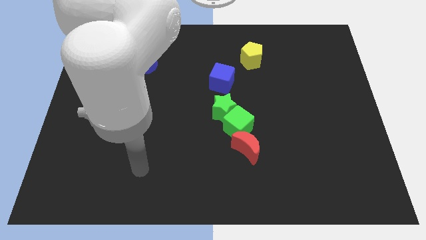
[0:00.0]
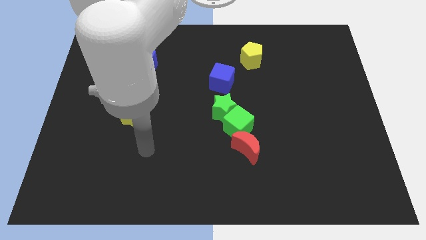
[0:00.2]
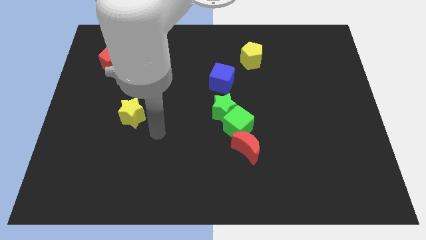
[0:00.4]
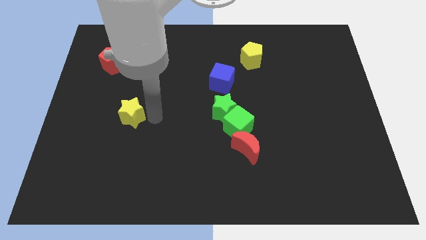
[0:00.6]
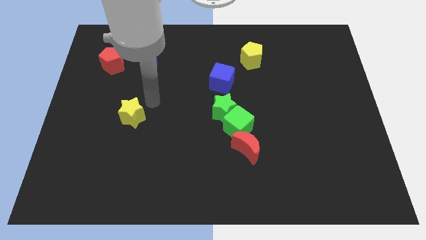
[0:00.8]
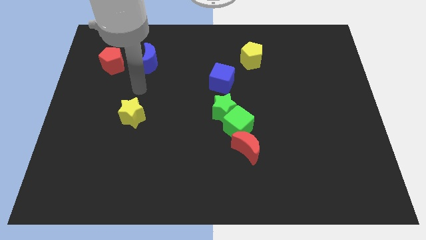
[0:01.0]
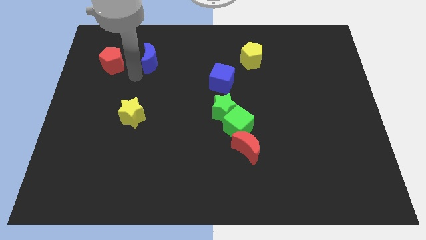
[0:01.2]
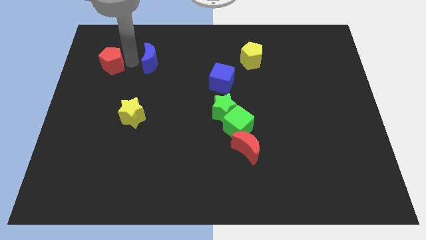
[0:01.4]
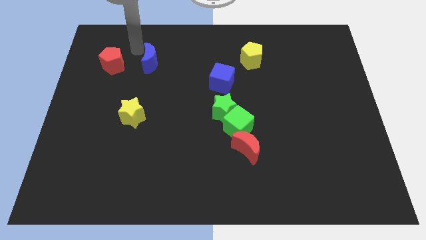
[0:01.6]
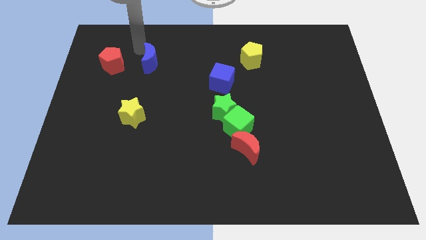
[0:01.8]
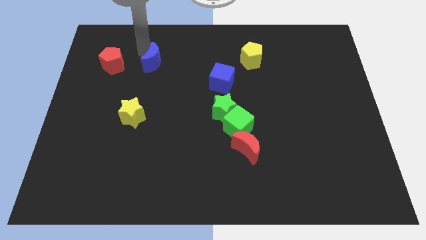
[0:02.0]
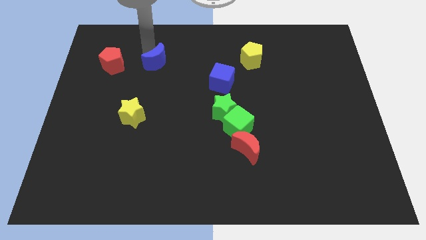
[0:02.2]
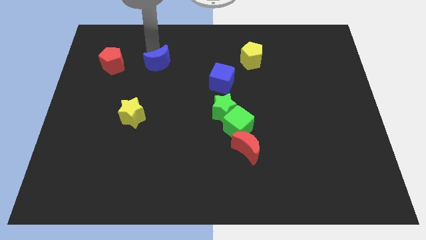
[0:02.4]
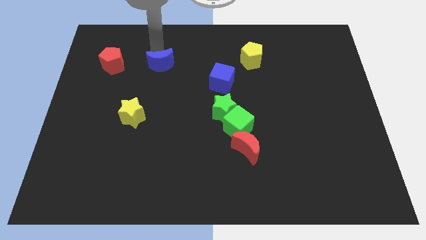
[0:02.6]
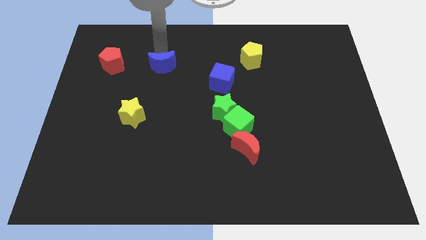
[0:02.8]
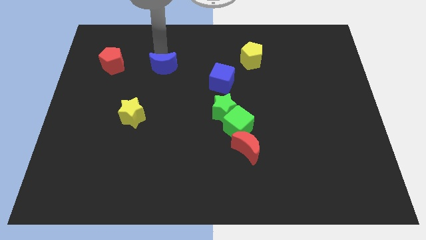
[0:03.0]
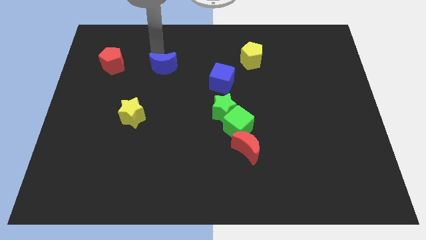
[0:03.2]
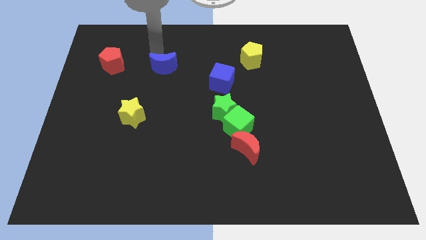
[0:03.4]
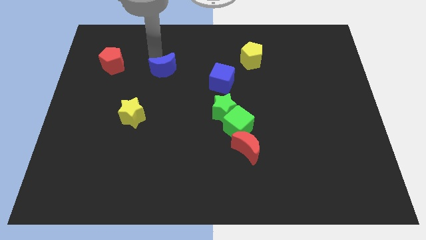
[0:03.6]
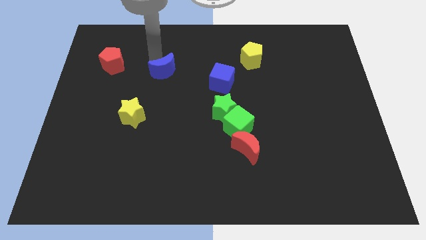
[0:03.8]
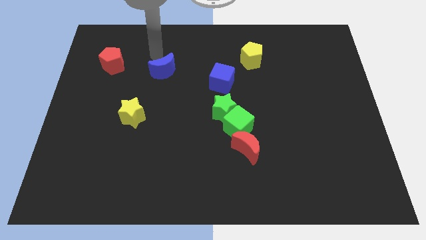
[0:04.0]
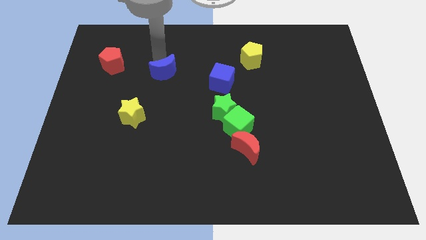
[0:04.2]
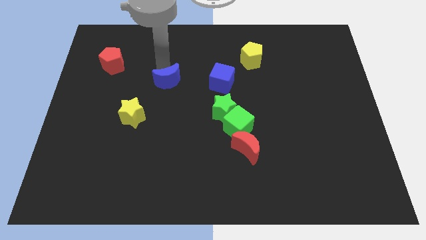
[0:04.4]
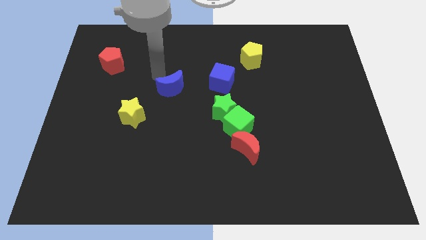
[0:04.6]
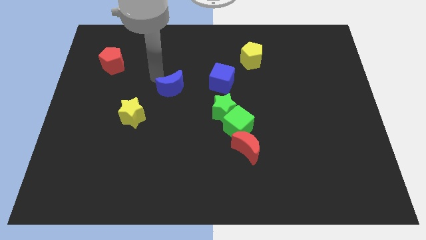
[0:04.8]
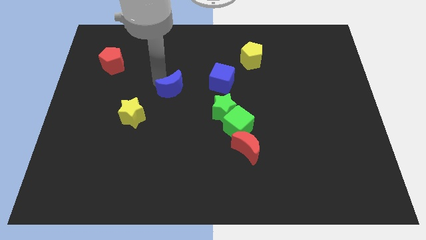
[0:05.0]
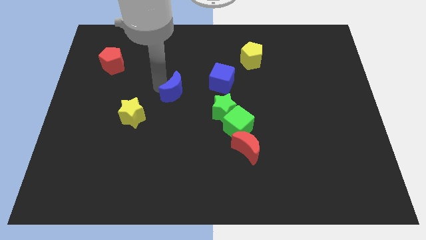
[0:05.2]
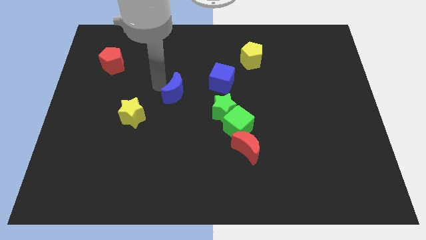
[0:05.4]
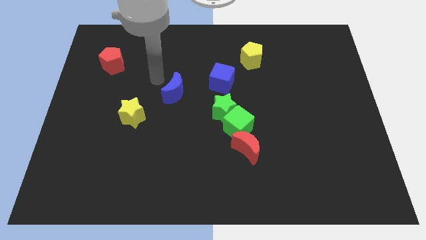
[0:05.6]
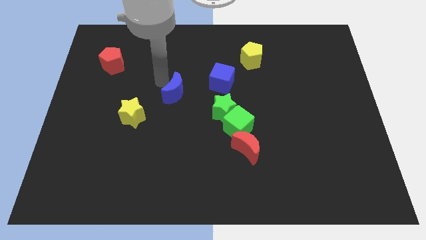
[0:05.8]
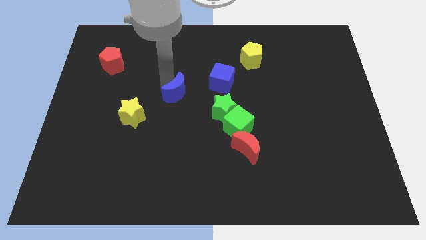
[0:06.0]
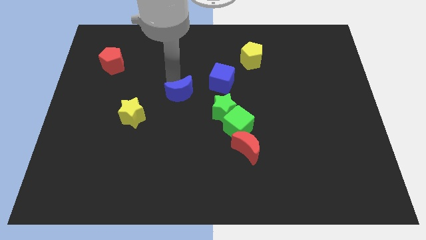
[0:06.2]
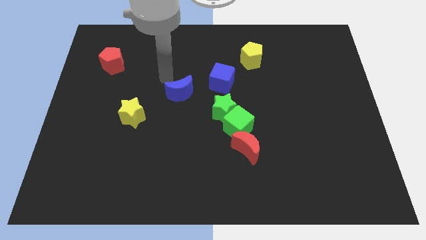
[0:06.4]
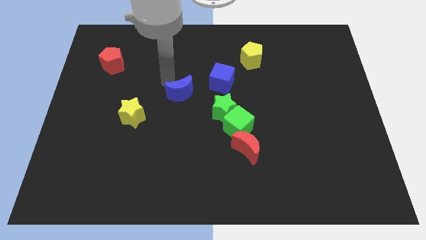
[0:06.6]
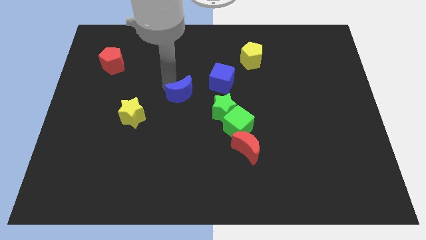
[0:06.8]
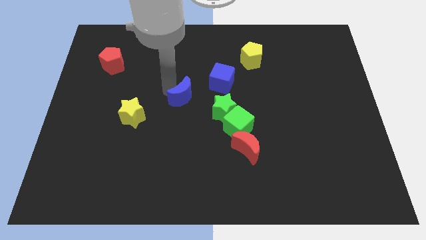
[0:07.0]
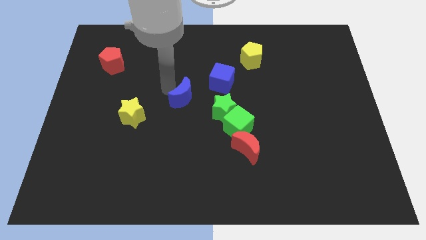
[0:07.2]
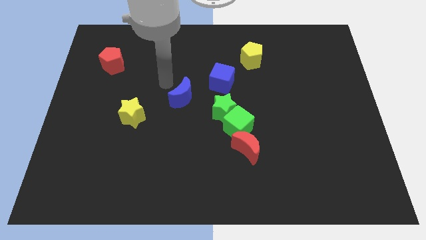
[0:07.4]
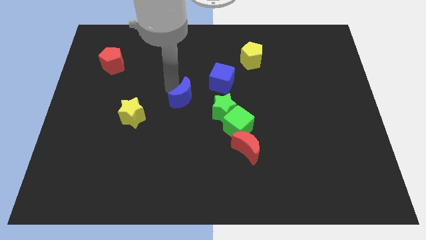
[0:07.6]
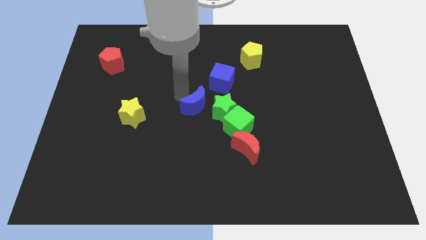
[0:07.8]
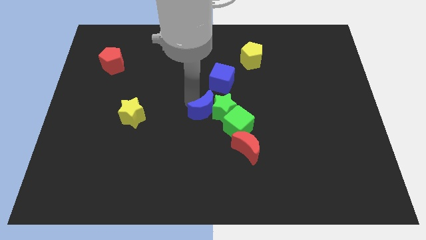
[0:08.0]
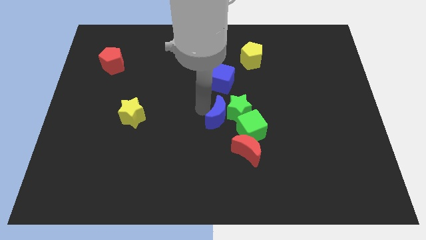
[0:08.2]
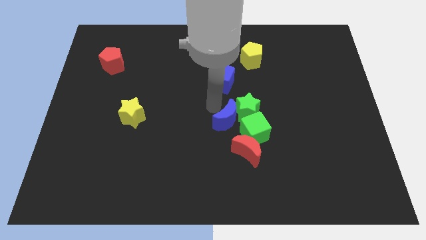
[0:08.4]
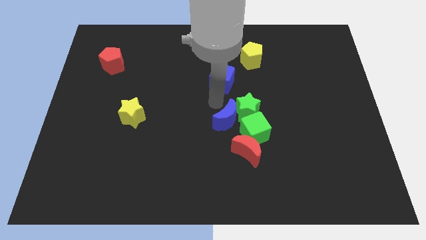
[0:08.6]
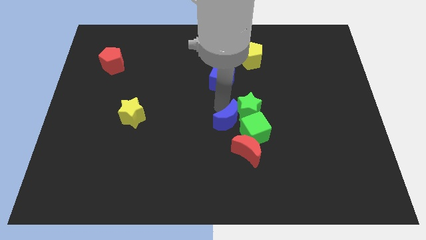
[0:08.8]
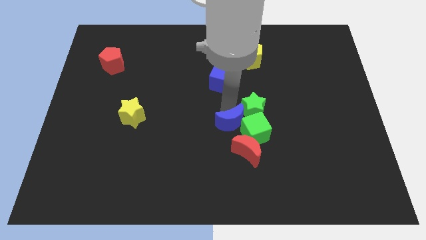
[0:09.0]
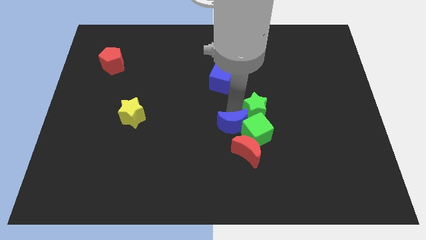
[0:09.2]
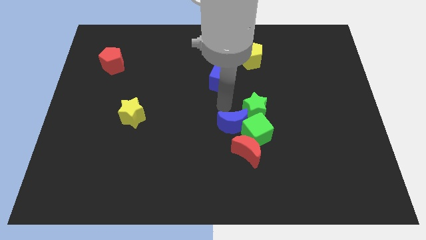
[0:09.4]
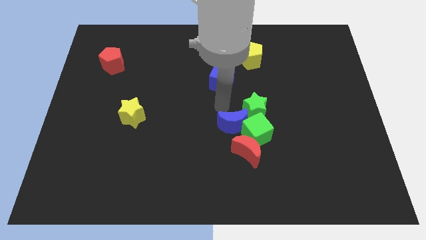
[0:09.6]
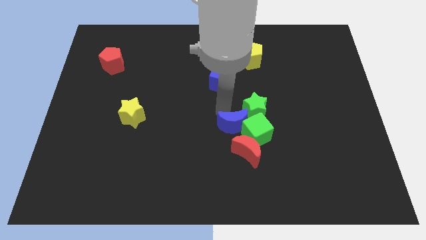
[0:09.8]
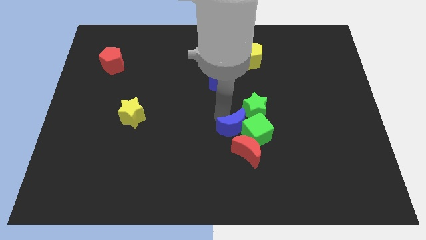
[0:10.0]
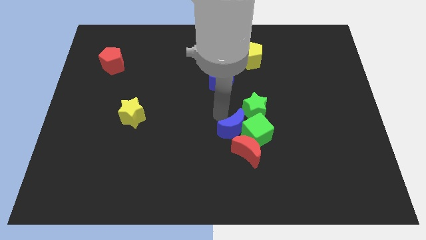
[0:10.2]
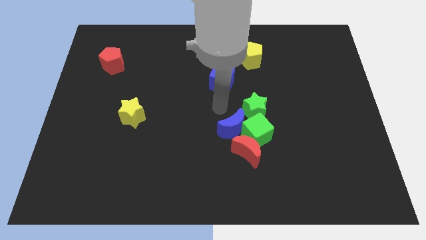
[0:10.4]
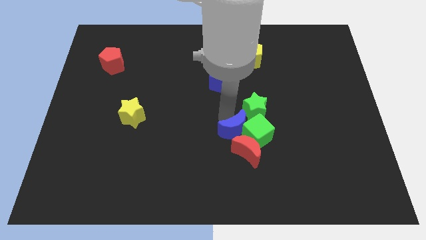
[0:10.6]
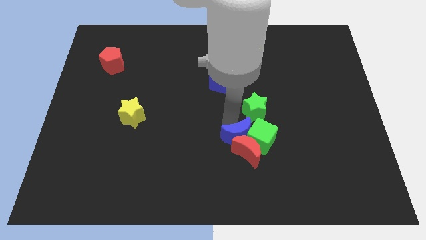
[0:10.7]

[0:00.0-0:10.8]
slide the blue moon close to the red moon
